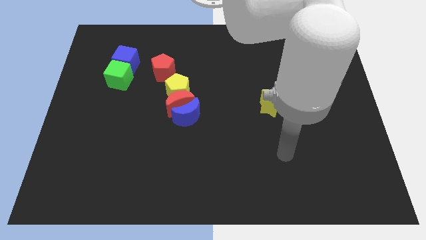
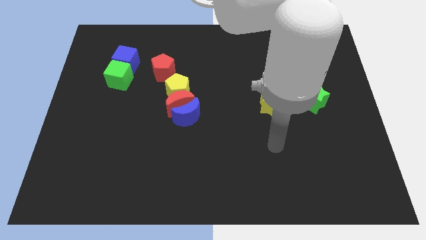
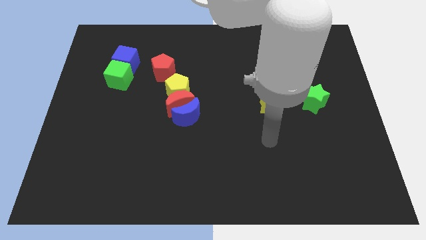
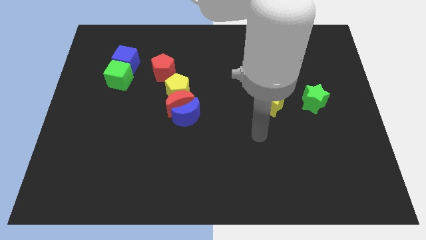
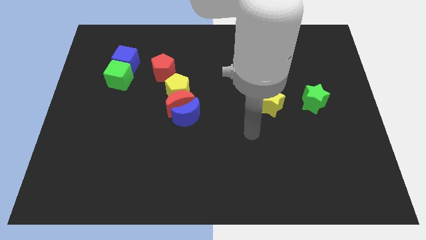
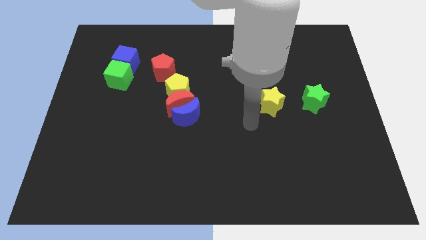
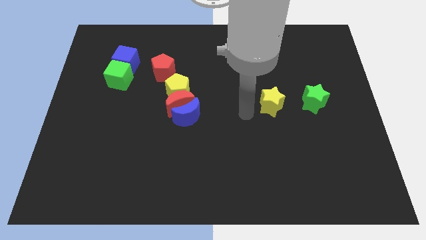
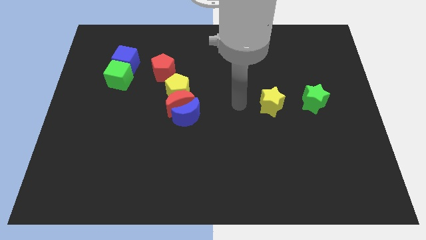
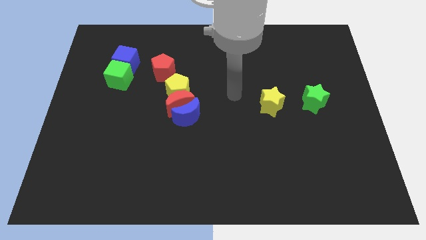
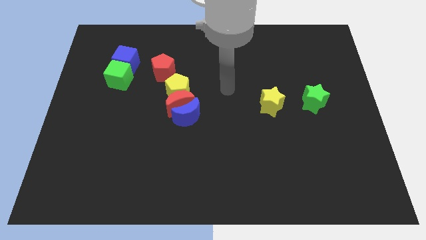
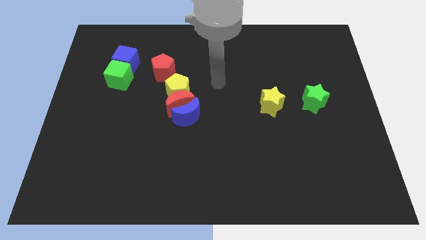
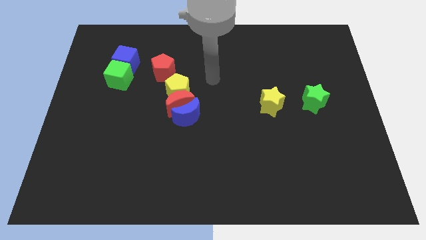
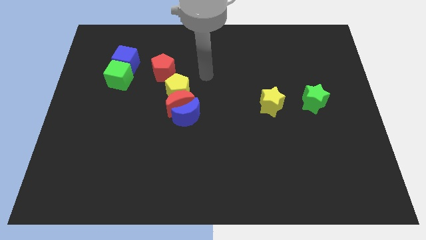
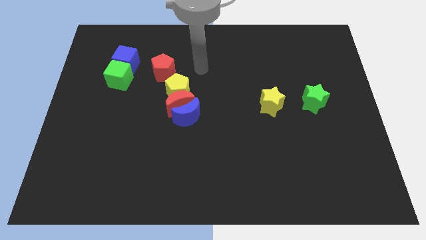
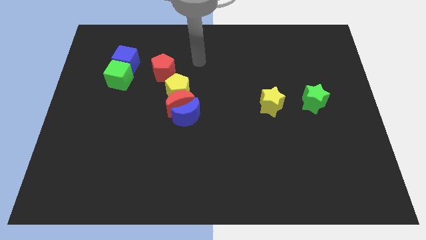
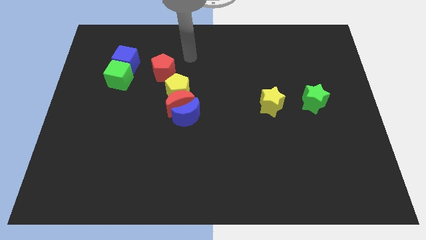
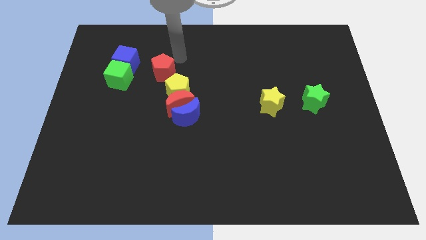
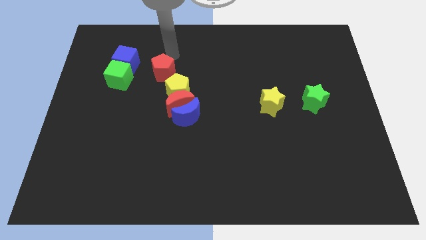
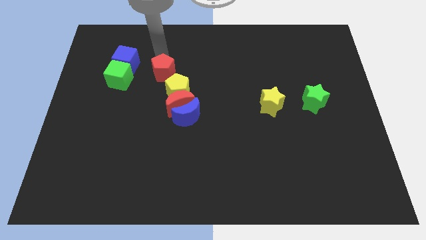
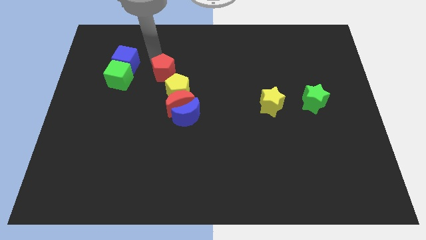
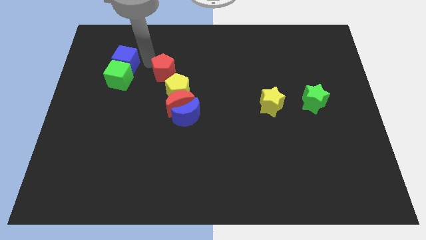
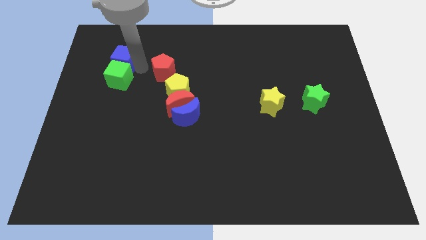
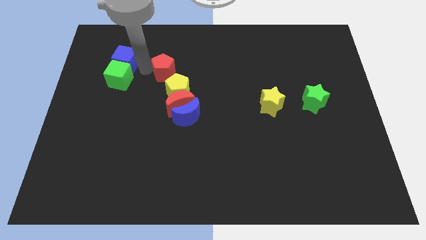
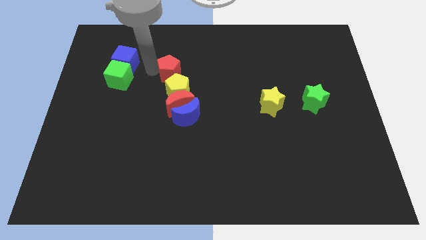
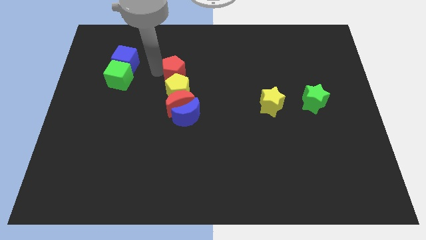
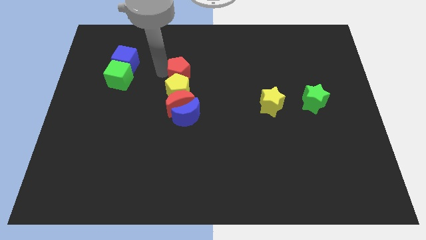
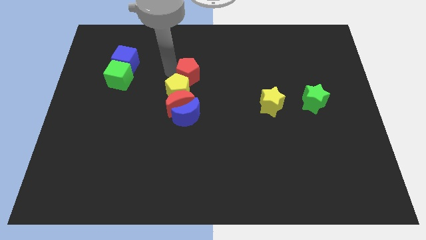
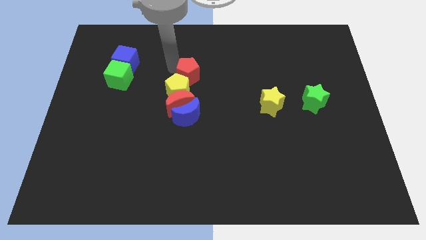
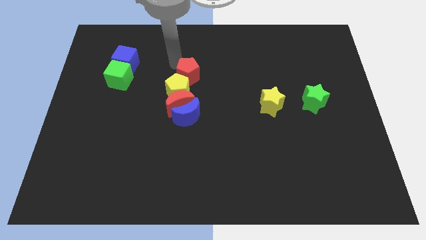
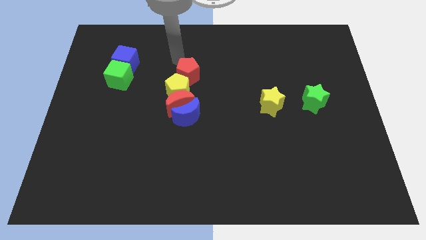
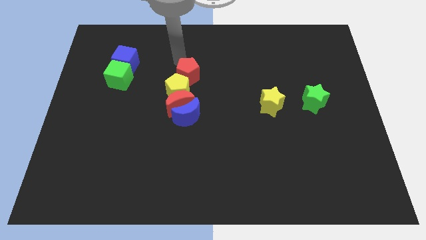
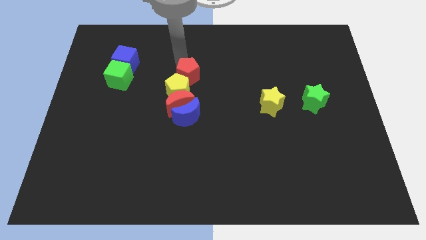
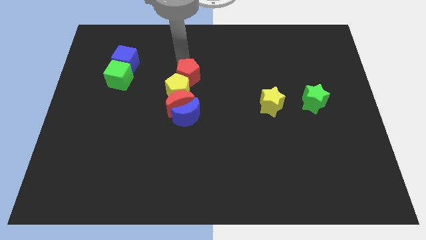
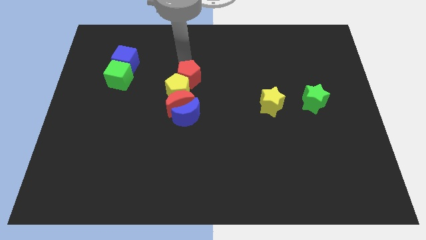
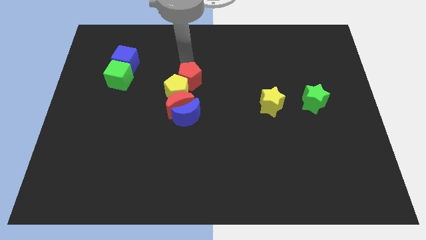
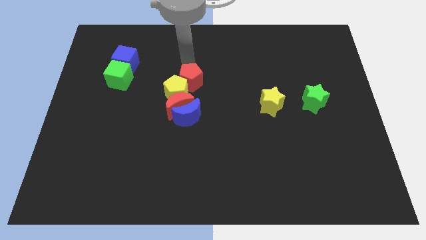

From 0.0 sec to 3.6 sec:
slide the red pentagon downwards and to the right diagonally somewhat

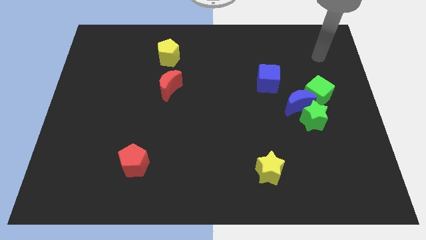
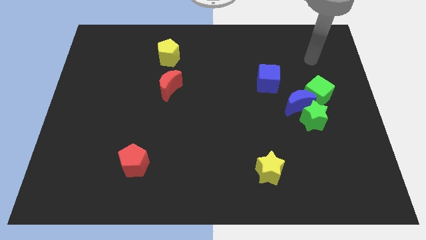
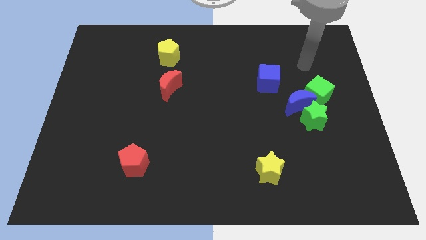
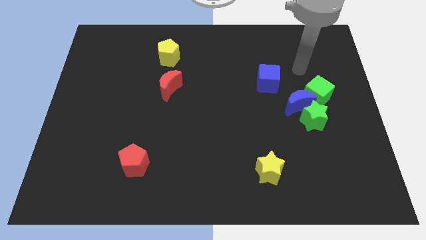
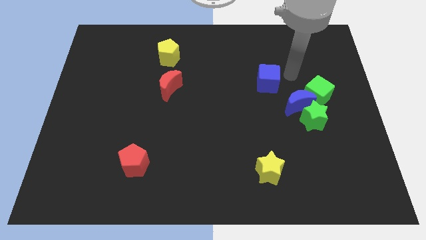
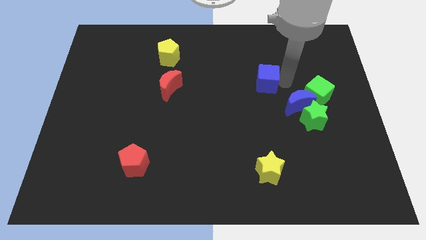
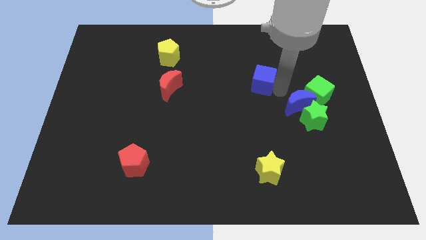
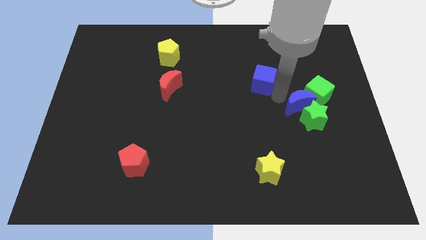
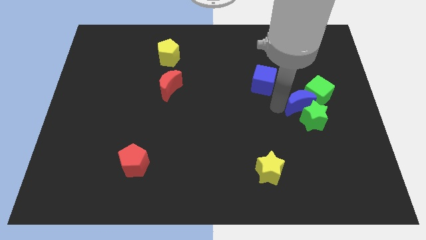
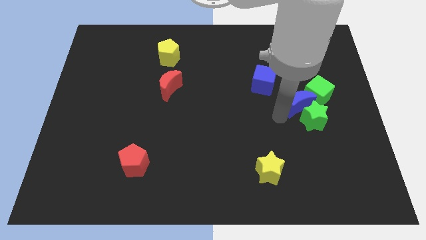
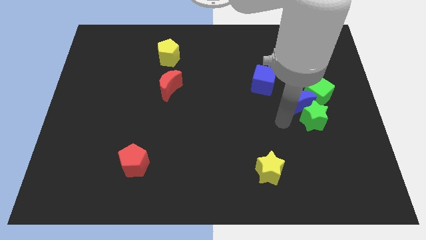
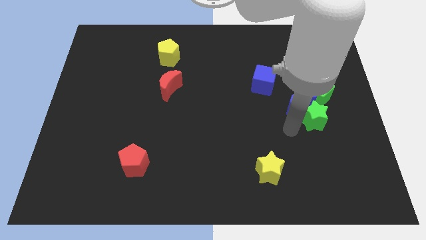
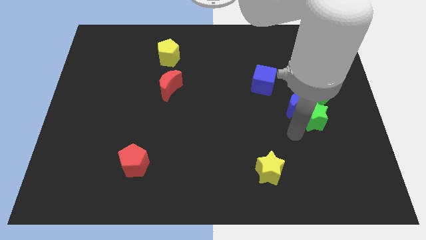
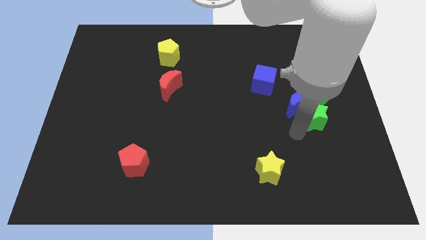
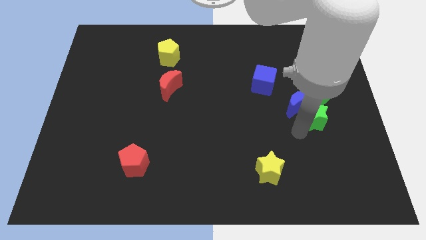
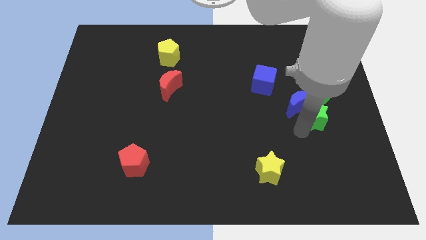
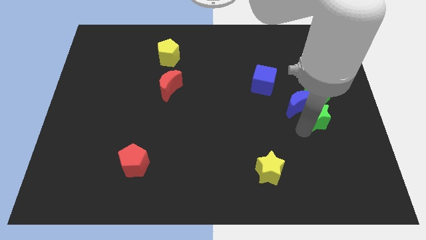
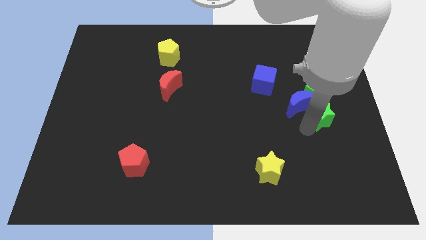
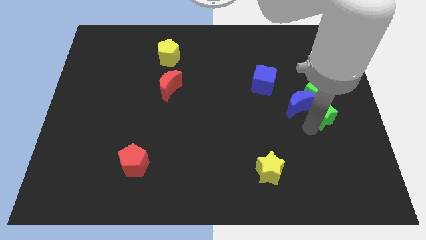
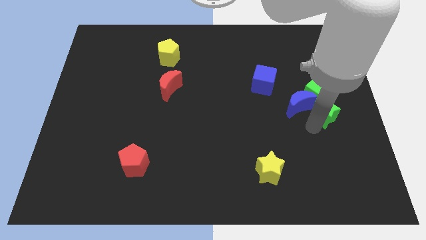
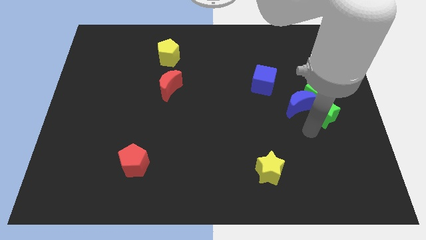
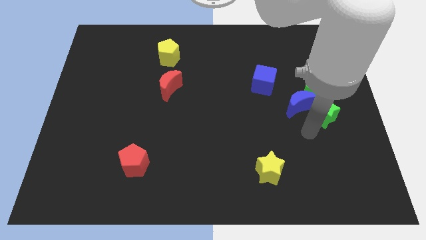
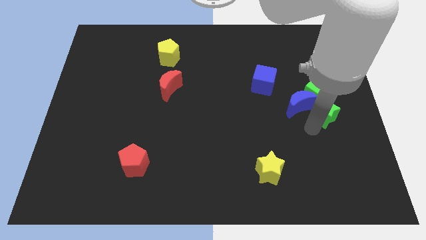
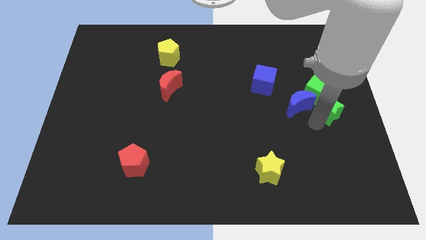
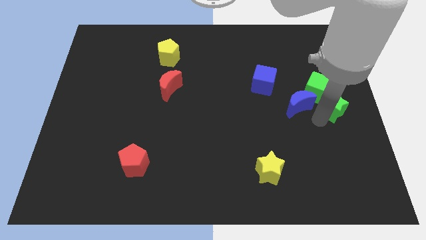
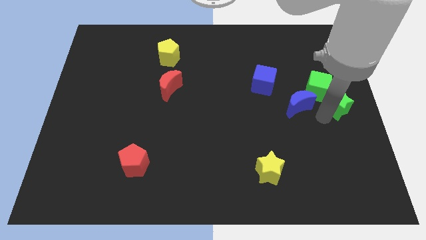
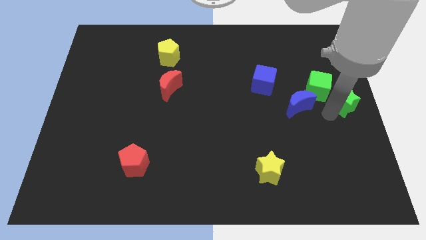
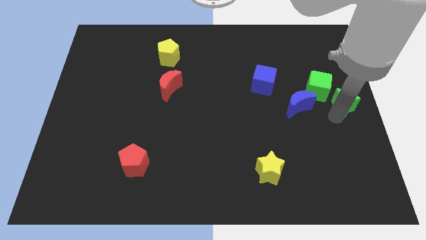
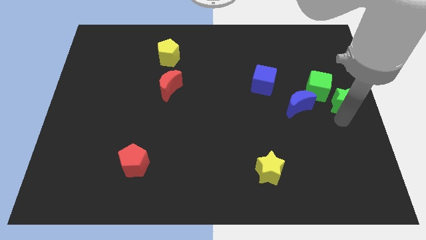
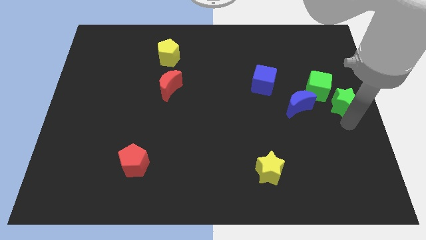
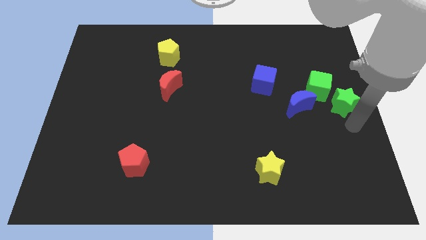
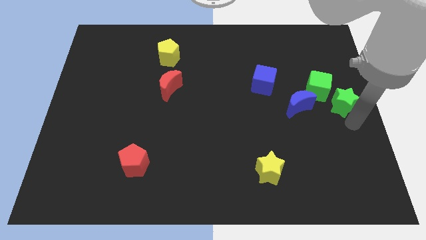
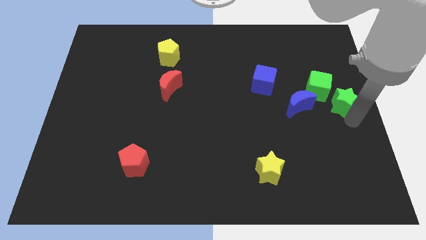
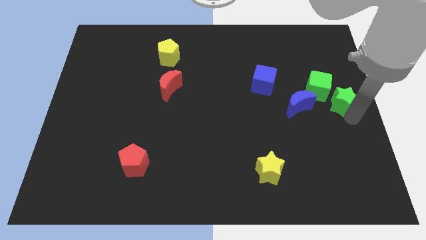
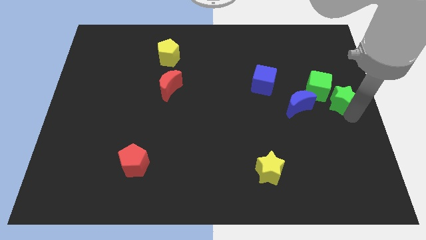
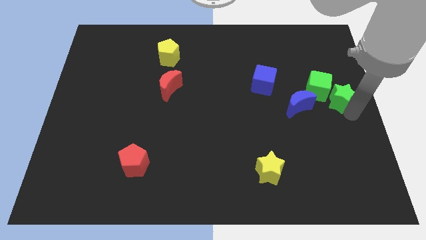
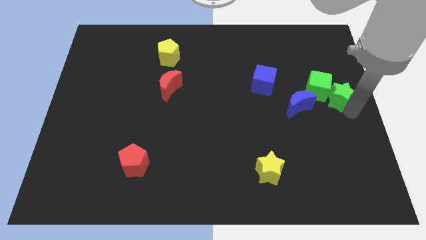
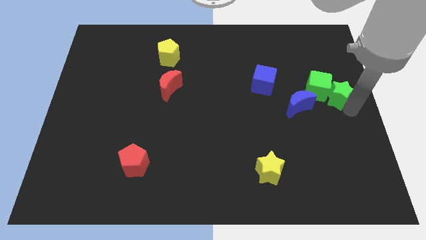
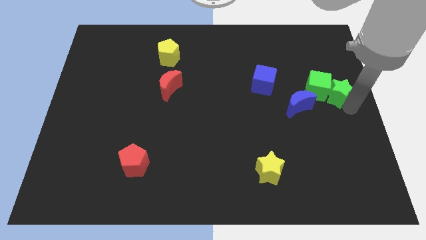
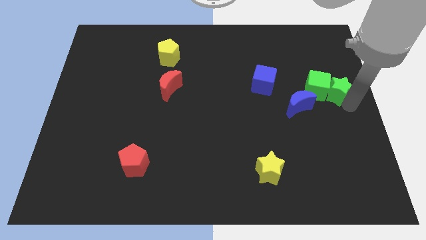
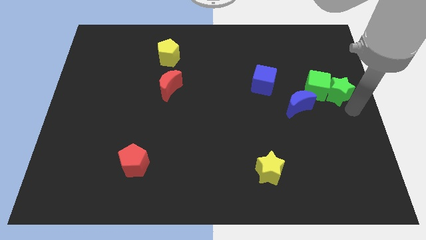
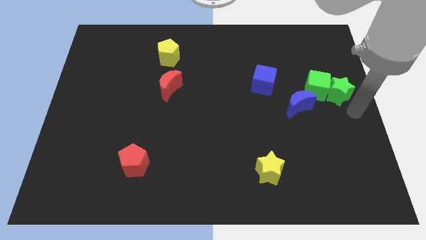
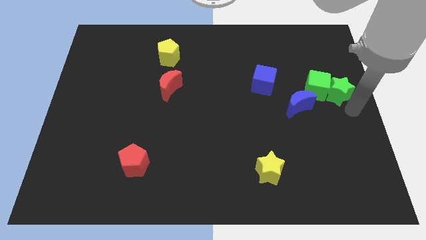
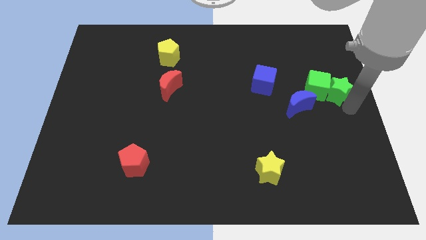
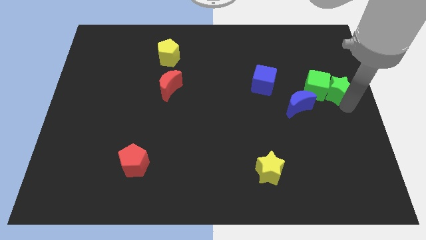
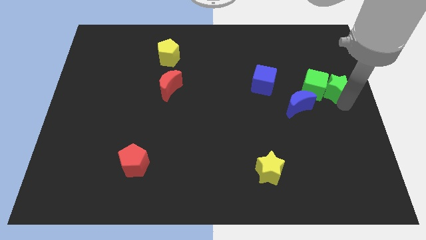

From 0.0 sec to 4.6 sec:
slide the green star up somewhat
